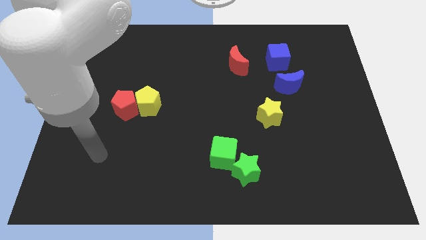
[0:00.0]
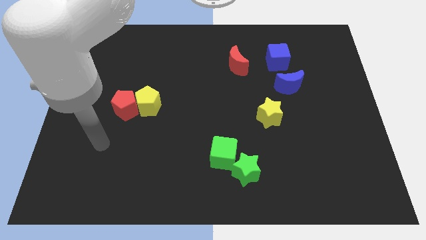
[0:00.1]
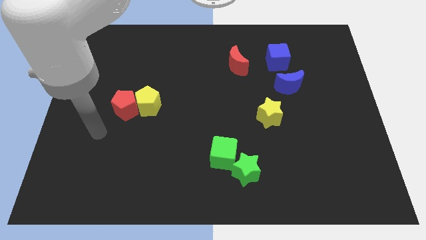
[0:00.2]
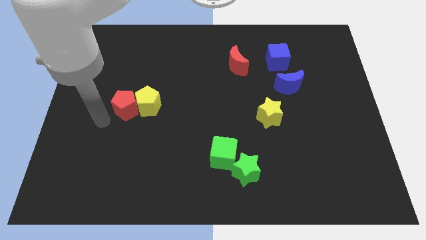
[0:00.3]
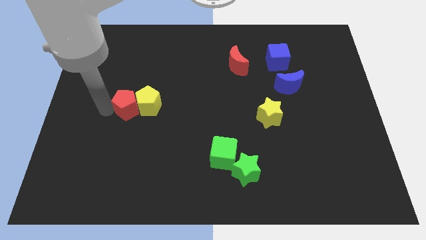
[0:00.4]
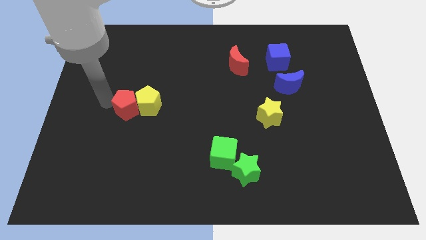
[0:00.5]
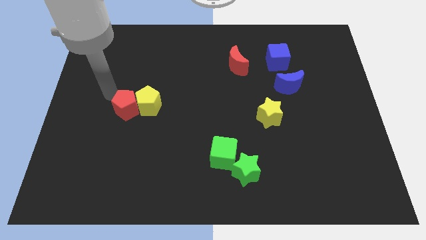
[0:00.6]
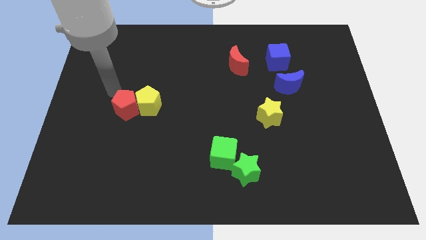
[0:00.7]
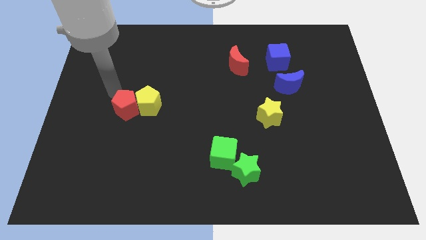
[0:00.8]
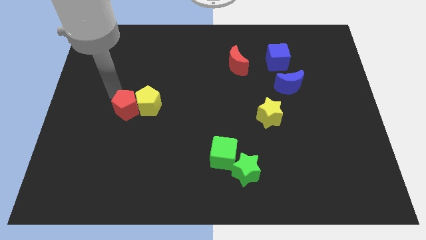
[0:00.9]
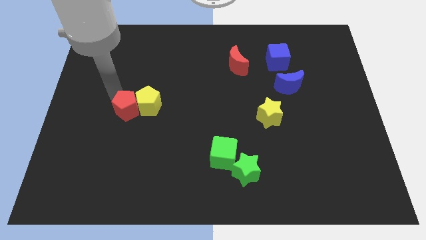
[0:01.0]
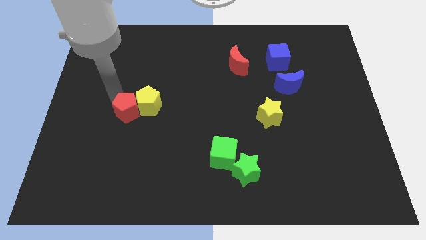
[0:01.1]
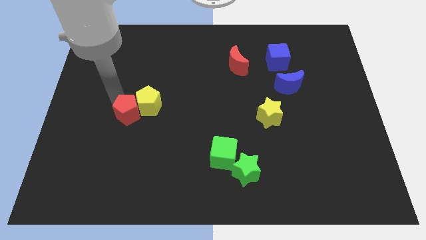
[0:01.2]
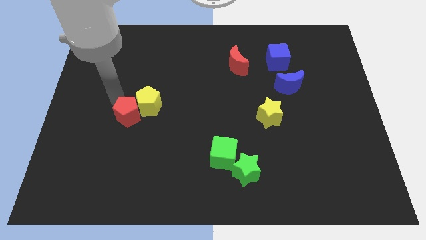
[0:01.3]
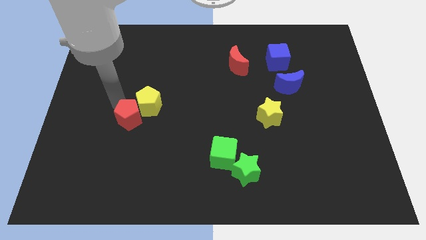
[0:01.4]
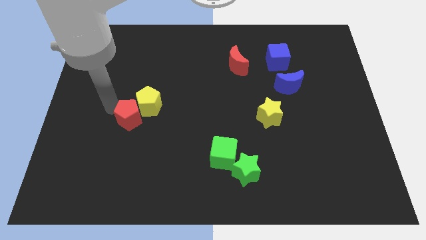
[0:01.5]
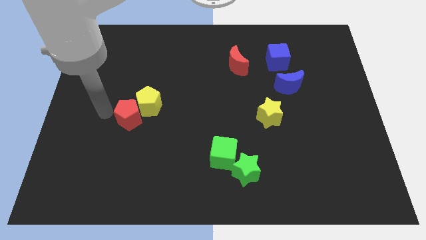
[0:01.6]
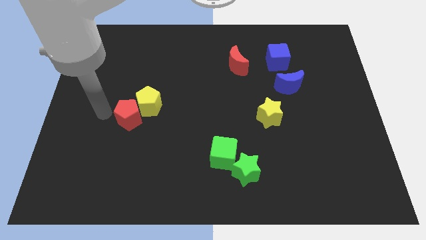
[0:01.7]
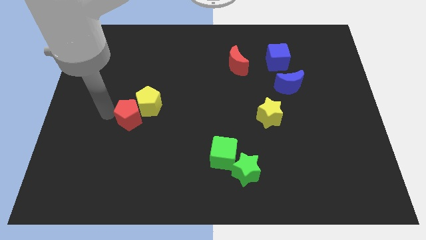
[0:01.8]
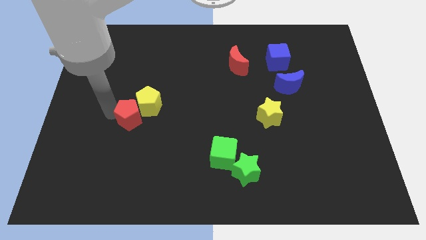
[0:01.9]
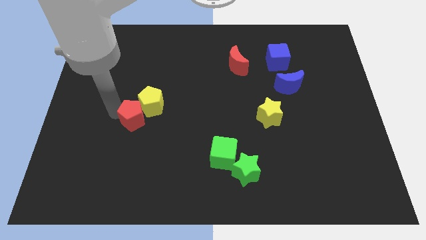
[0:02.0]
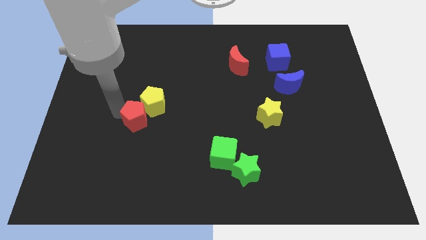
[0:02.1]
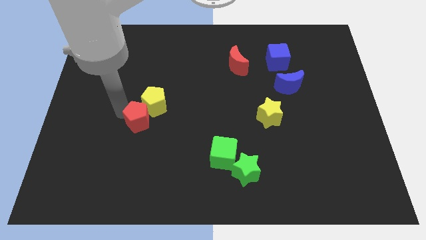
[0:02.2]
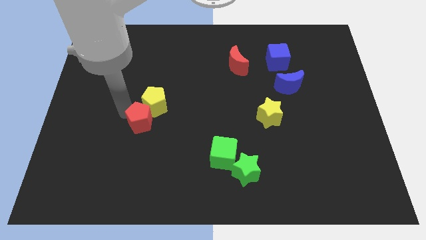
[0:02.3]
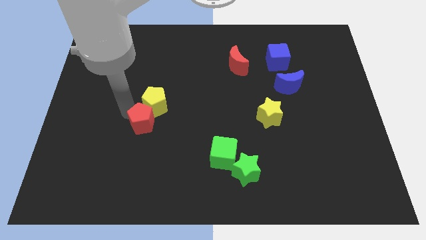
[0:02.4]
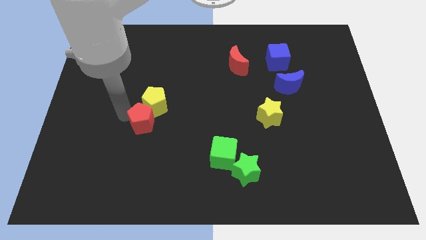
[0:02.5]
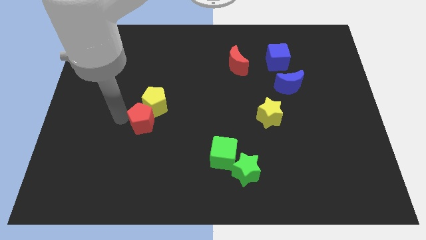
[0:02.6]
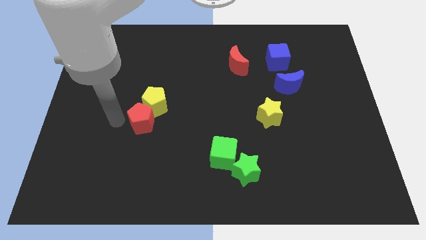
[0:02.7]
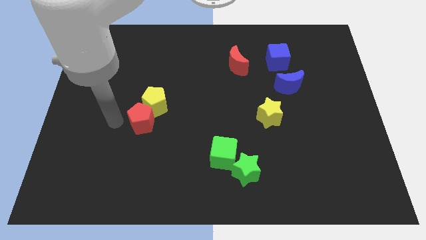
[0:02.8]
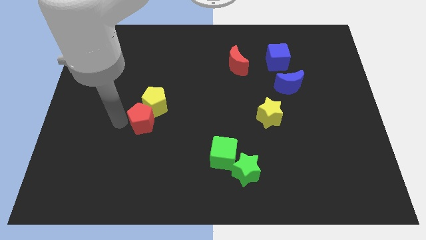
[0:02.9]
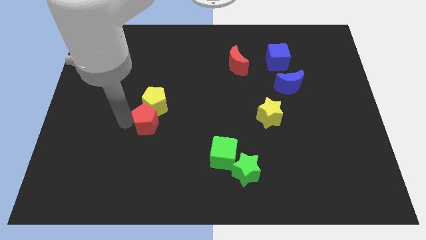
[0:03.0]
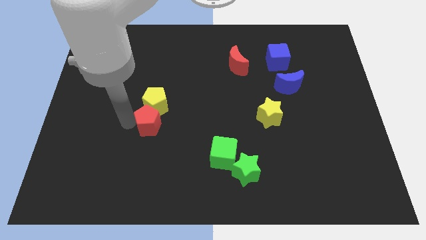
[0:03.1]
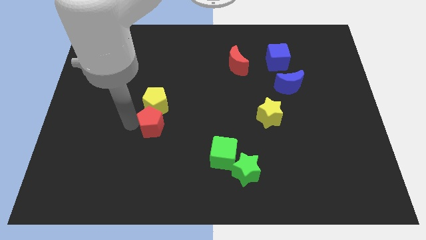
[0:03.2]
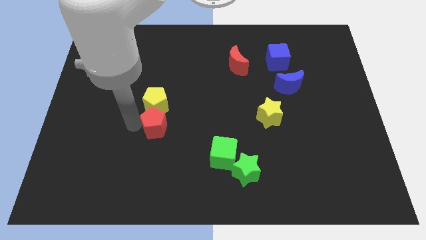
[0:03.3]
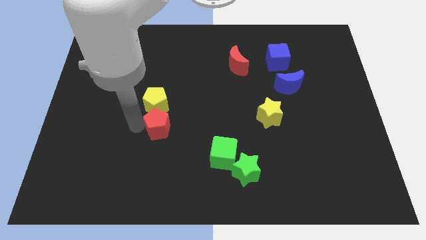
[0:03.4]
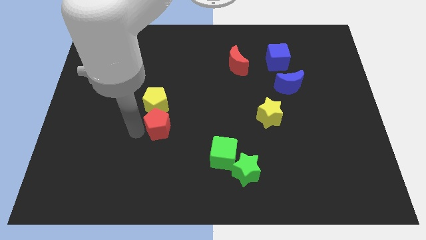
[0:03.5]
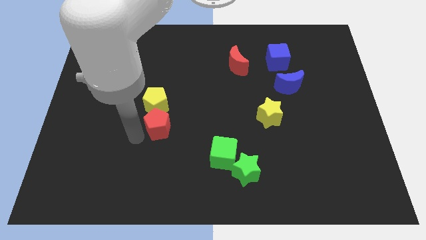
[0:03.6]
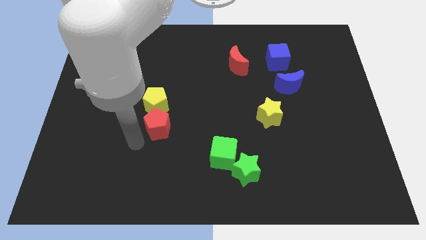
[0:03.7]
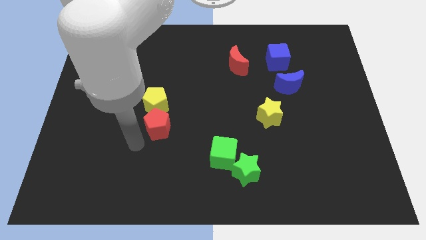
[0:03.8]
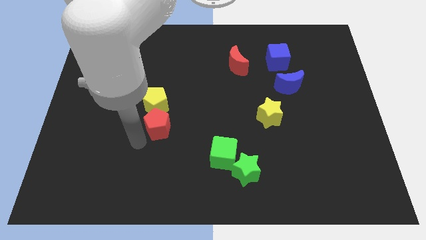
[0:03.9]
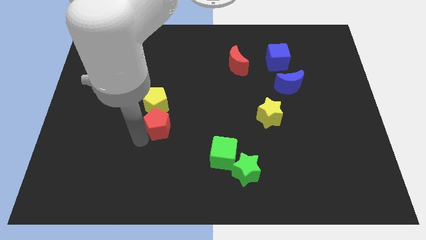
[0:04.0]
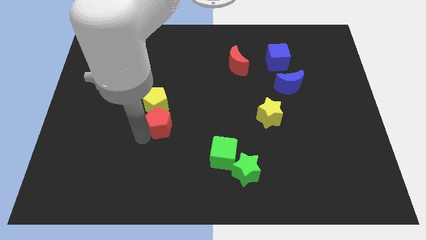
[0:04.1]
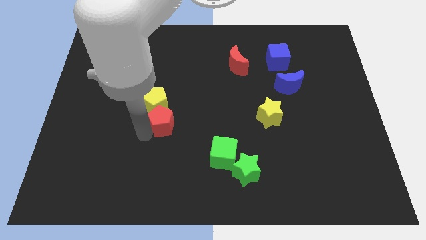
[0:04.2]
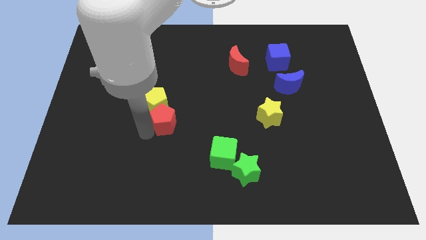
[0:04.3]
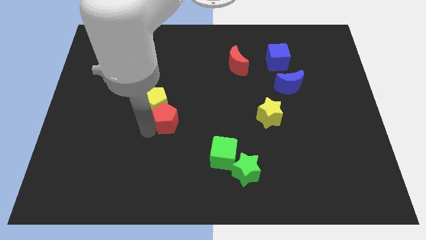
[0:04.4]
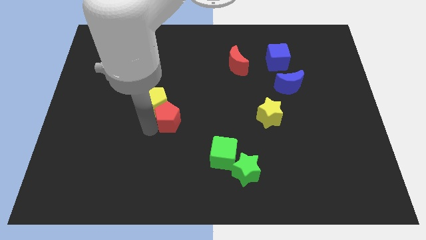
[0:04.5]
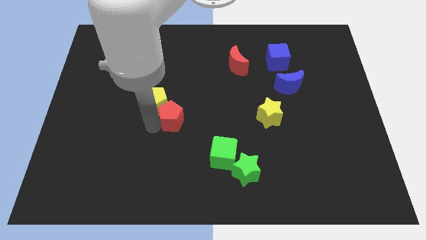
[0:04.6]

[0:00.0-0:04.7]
slide the red pentagon to the right of the yellow pentagon

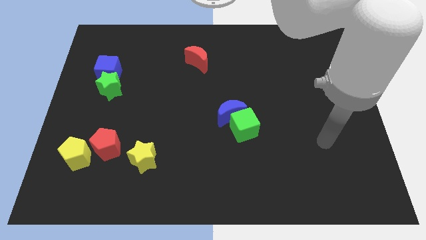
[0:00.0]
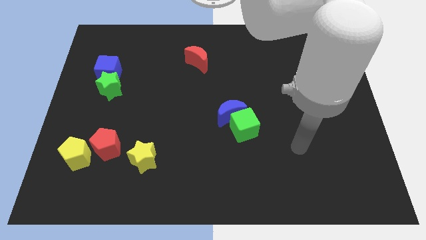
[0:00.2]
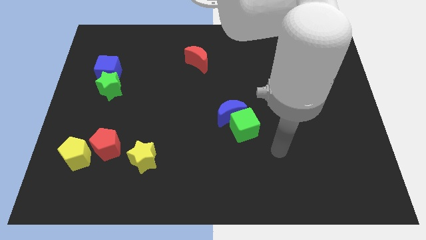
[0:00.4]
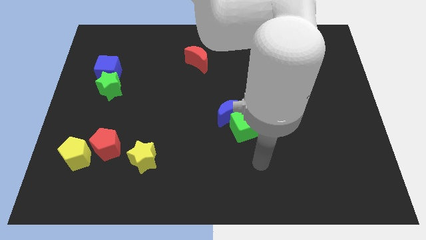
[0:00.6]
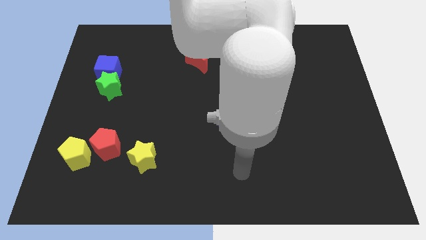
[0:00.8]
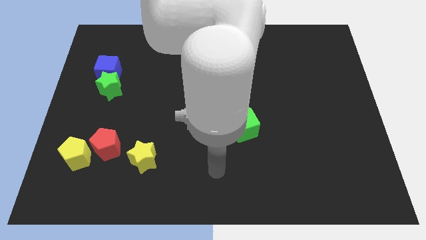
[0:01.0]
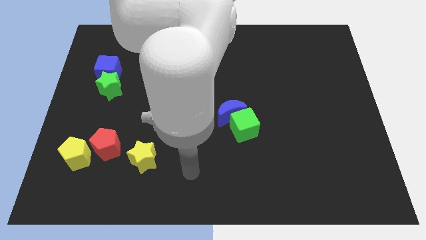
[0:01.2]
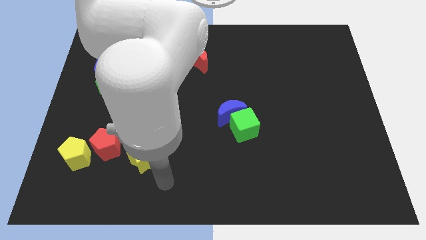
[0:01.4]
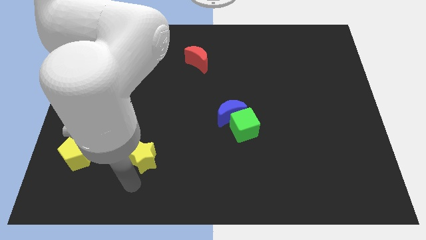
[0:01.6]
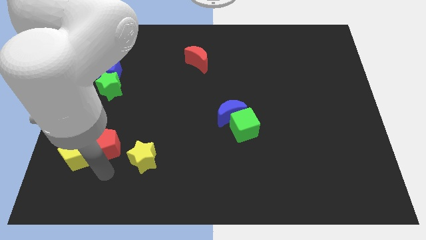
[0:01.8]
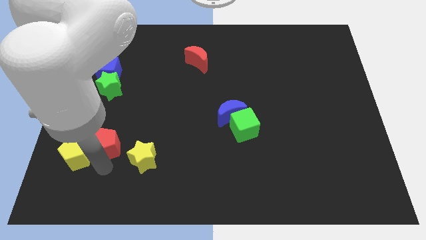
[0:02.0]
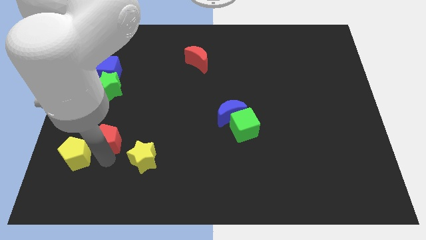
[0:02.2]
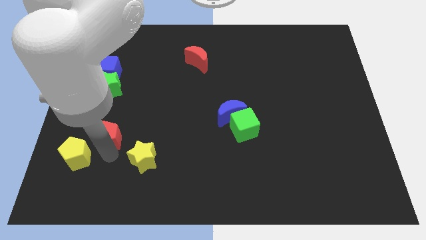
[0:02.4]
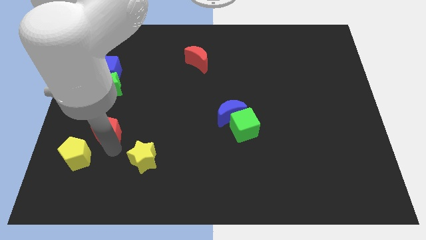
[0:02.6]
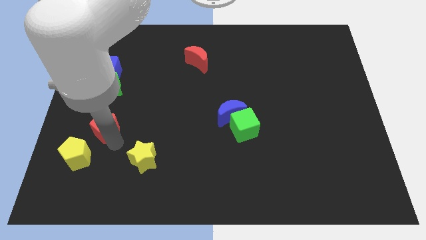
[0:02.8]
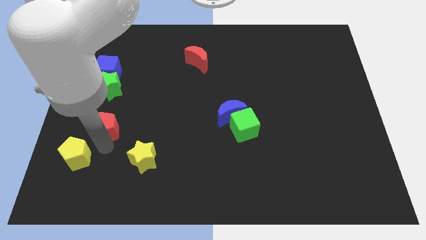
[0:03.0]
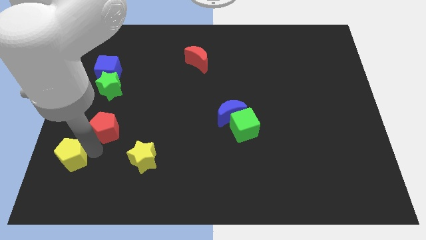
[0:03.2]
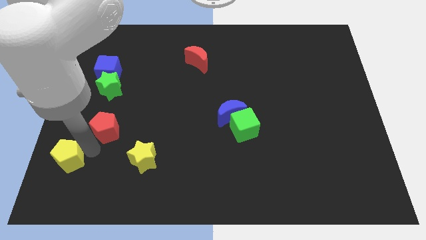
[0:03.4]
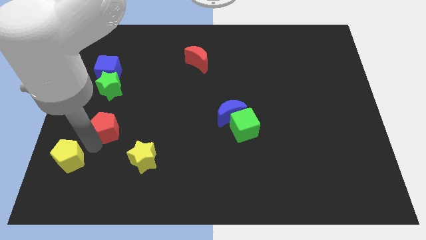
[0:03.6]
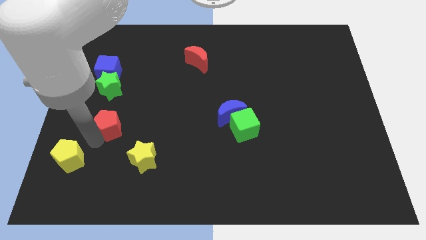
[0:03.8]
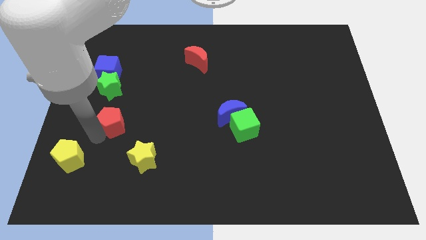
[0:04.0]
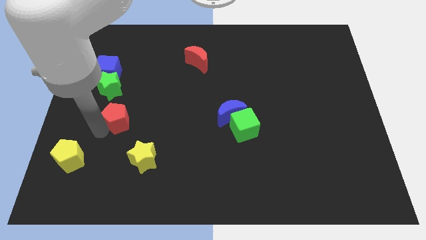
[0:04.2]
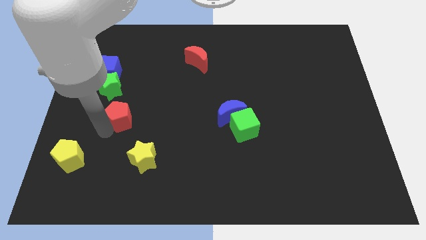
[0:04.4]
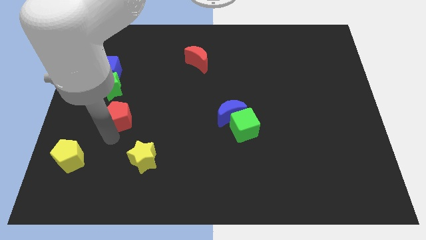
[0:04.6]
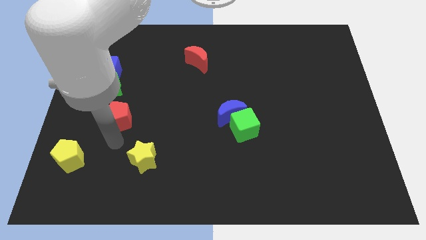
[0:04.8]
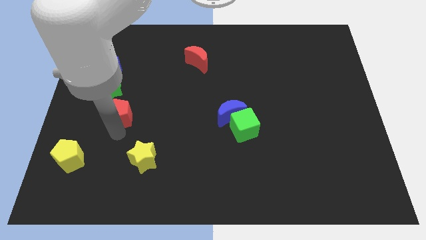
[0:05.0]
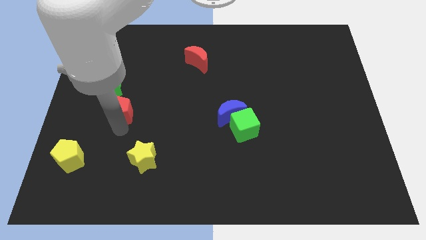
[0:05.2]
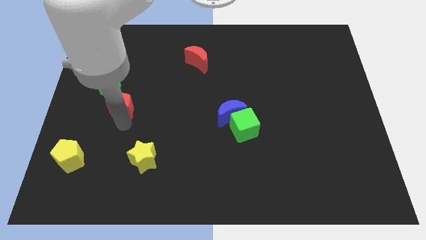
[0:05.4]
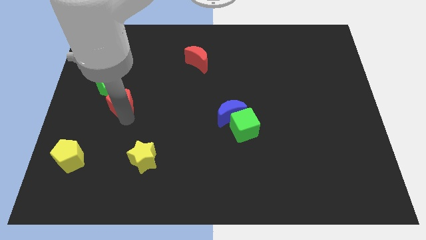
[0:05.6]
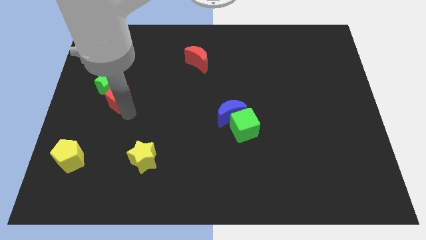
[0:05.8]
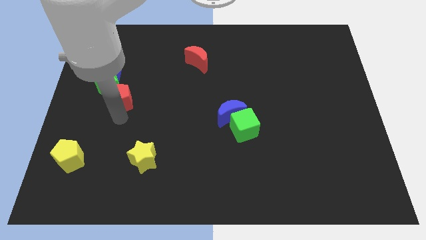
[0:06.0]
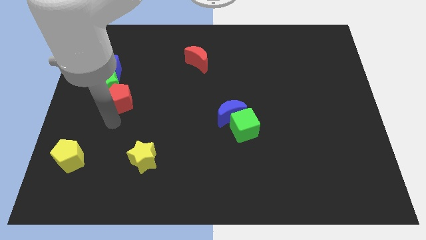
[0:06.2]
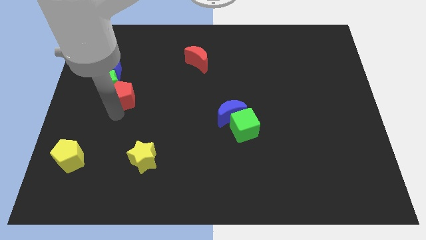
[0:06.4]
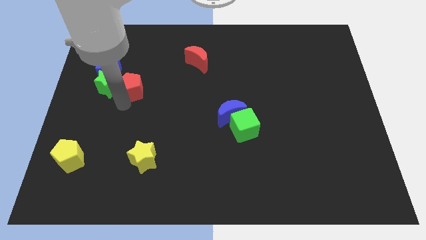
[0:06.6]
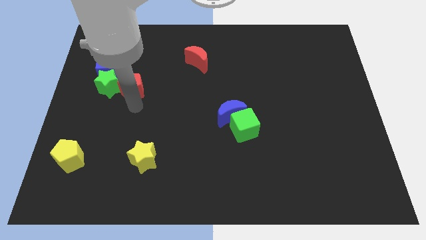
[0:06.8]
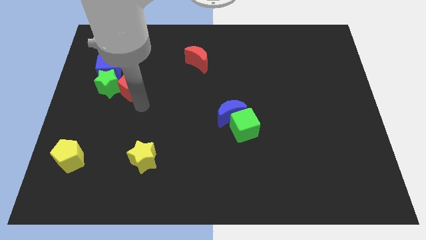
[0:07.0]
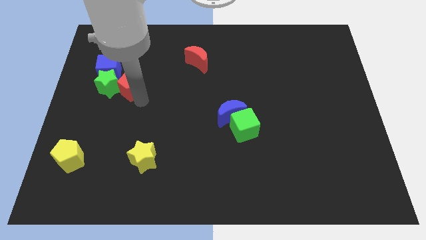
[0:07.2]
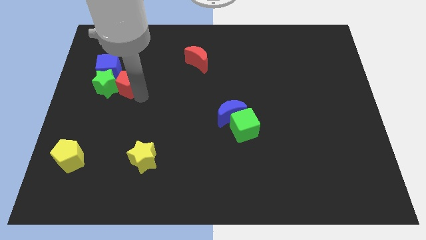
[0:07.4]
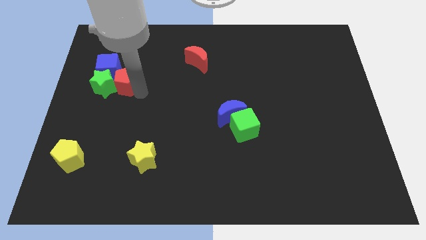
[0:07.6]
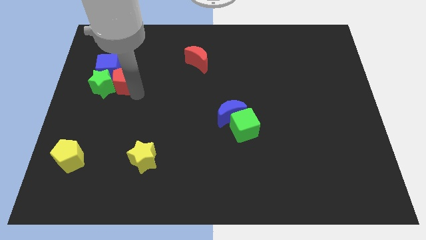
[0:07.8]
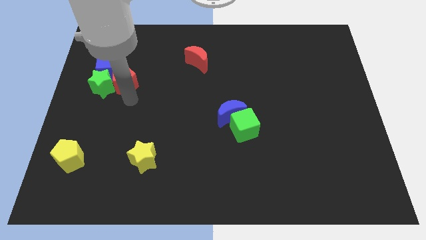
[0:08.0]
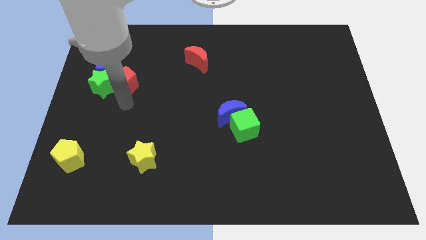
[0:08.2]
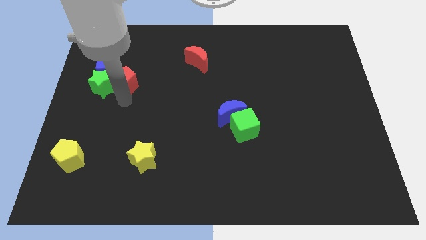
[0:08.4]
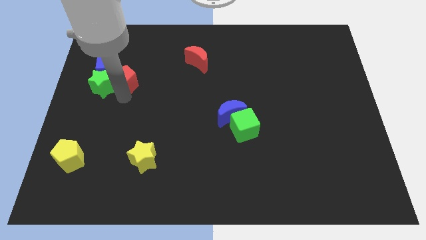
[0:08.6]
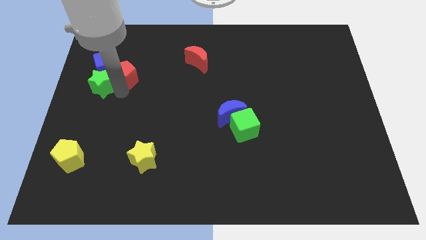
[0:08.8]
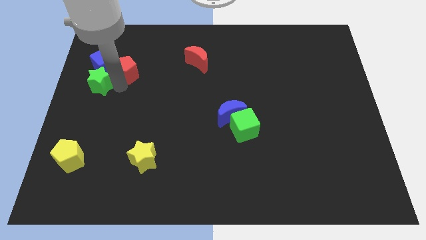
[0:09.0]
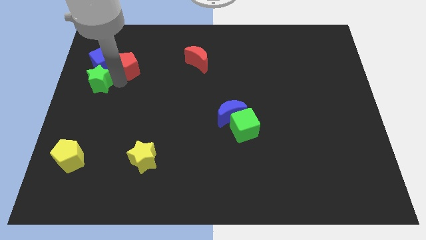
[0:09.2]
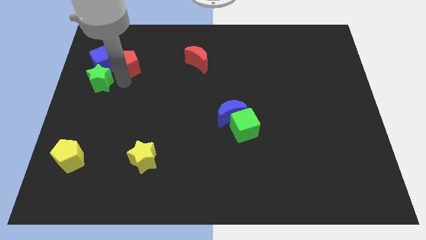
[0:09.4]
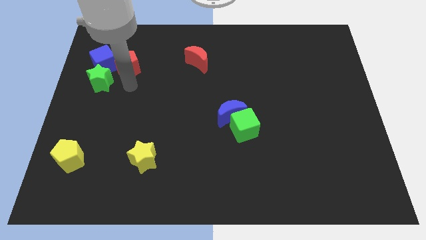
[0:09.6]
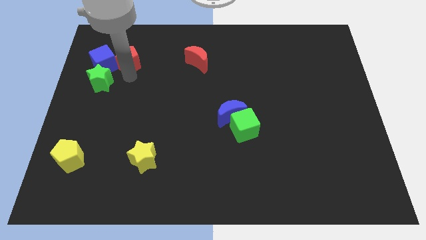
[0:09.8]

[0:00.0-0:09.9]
move the red pentagon diagonally up and to the right of the blue cube
